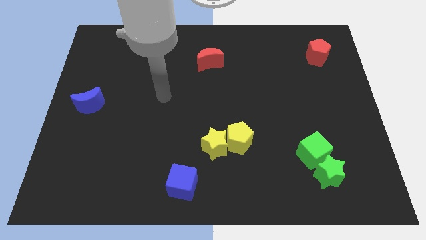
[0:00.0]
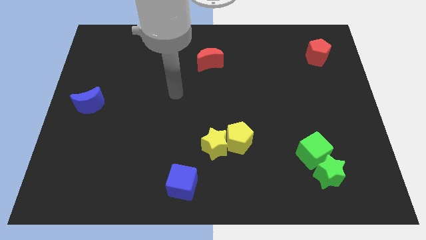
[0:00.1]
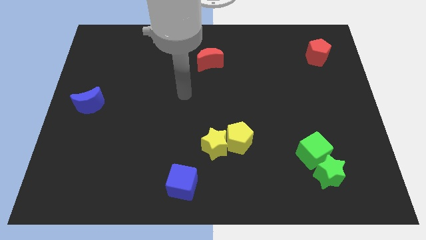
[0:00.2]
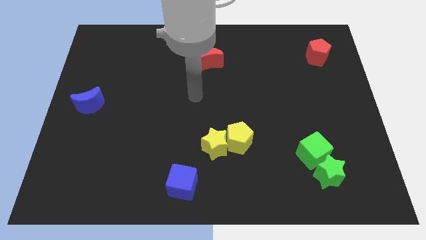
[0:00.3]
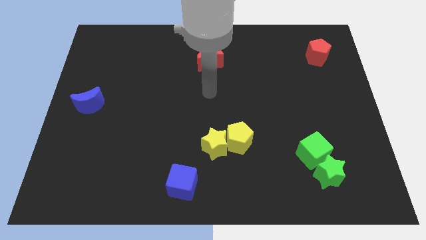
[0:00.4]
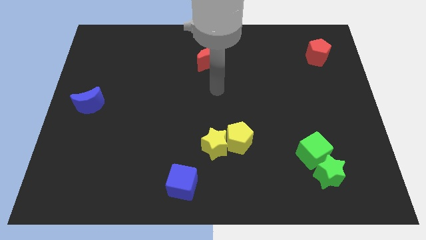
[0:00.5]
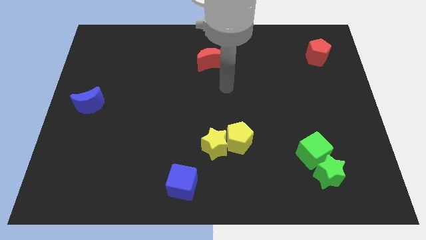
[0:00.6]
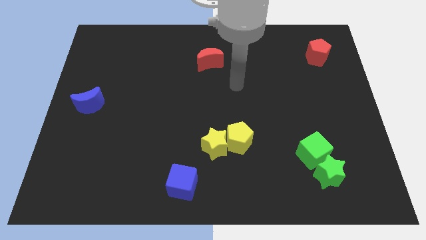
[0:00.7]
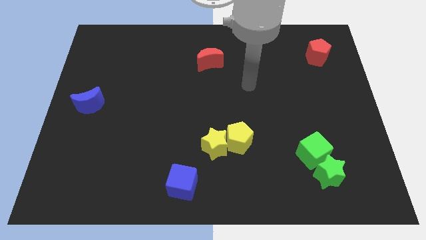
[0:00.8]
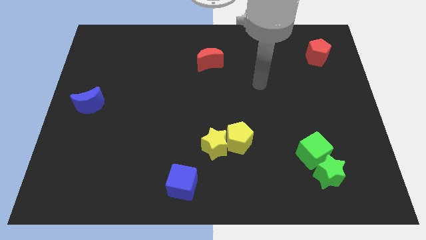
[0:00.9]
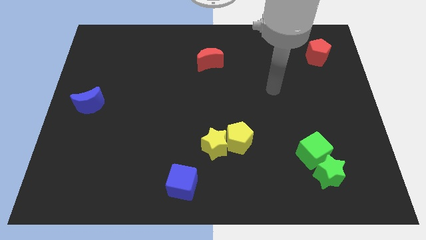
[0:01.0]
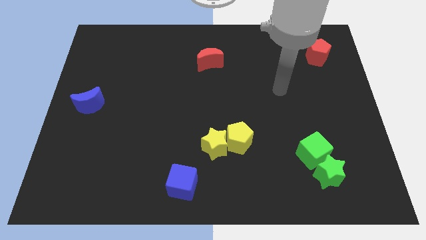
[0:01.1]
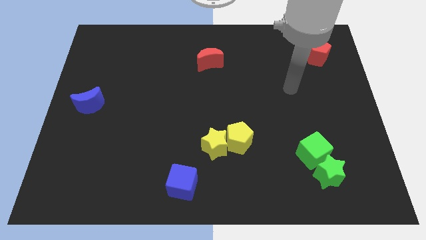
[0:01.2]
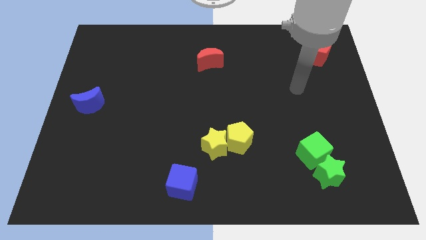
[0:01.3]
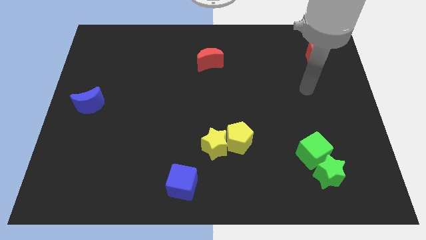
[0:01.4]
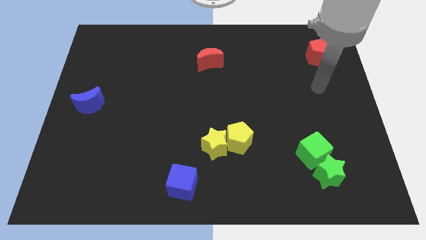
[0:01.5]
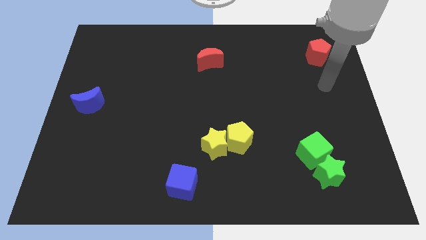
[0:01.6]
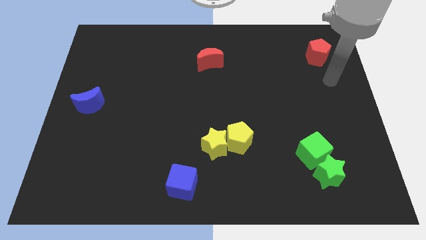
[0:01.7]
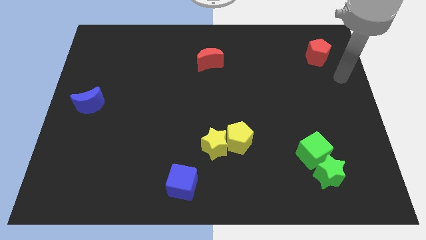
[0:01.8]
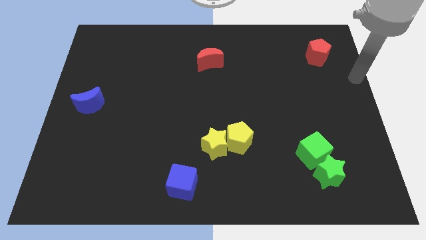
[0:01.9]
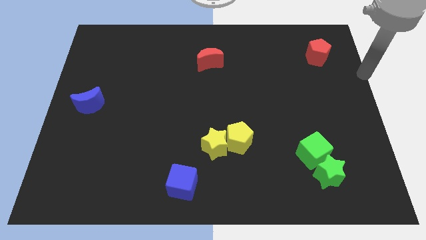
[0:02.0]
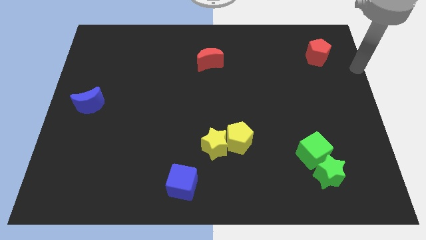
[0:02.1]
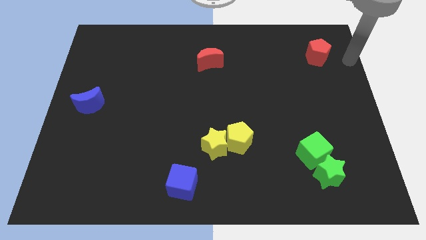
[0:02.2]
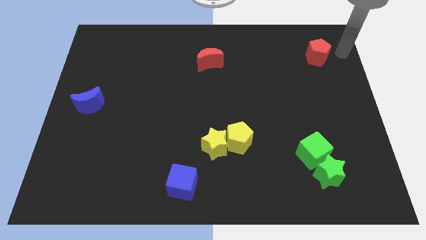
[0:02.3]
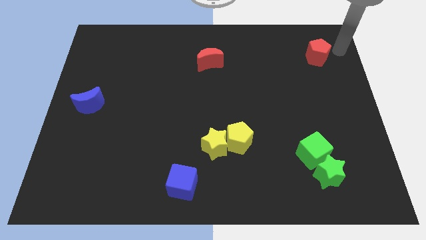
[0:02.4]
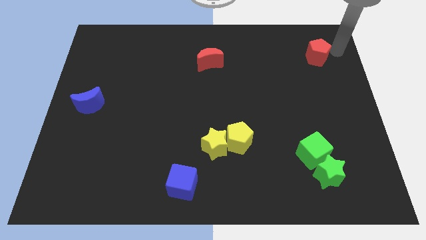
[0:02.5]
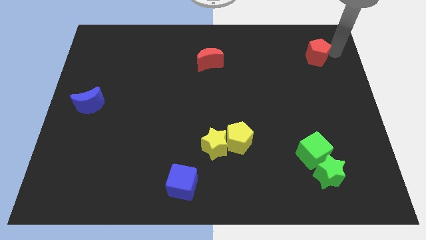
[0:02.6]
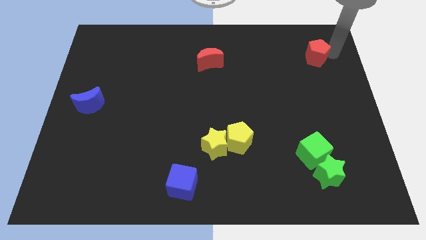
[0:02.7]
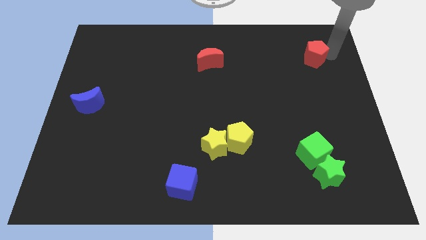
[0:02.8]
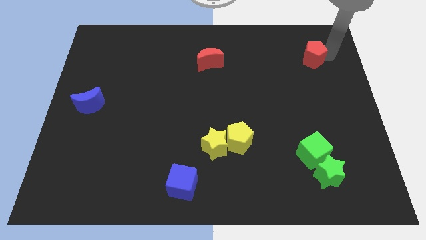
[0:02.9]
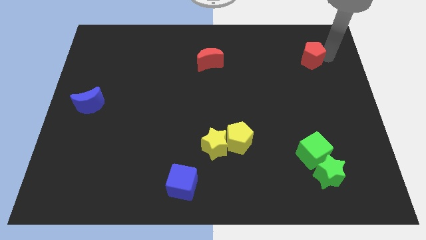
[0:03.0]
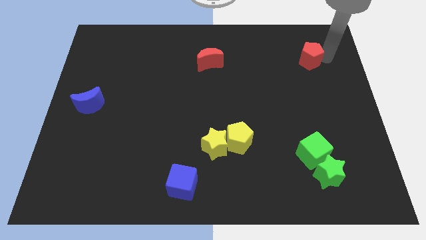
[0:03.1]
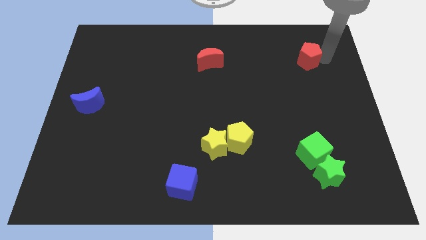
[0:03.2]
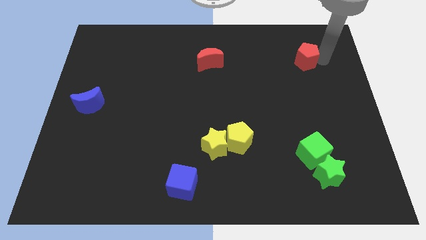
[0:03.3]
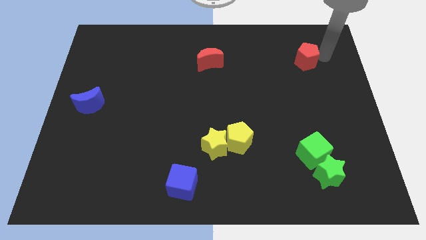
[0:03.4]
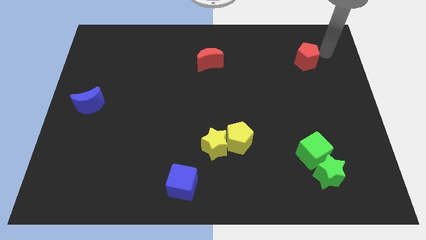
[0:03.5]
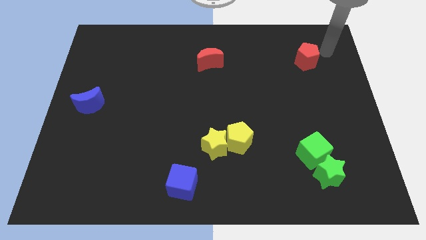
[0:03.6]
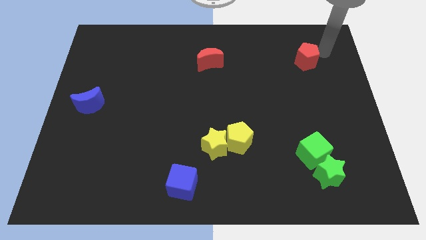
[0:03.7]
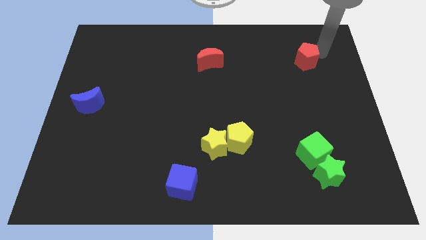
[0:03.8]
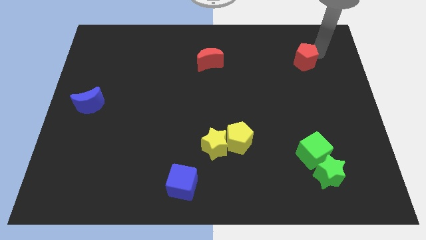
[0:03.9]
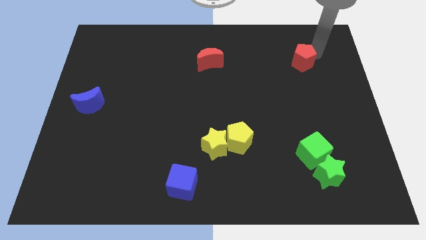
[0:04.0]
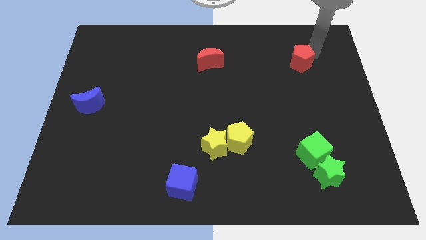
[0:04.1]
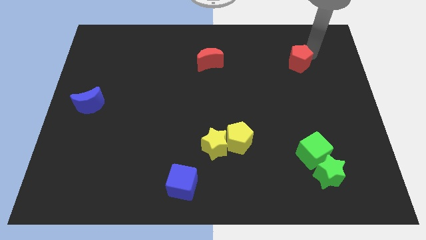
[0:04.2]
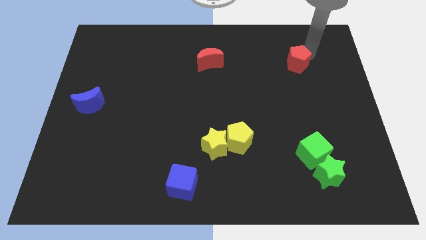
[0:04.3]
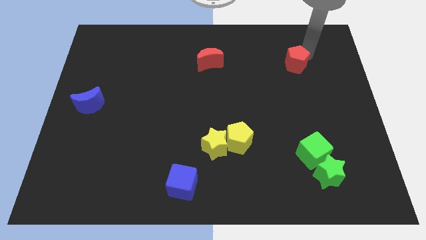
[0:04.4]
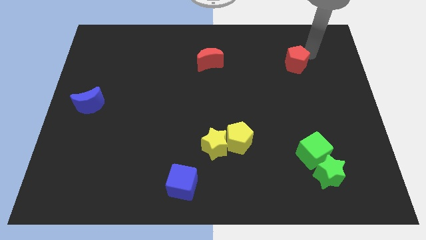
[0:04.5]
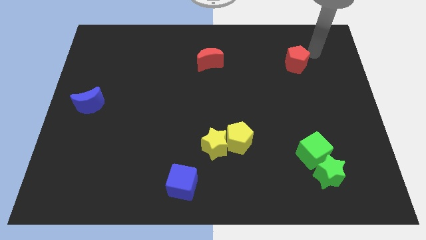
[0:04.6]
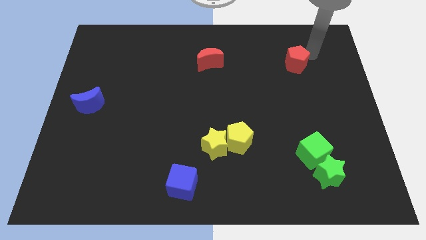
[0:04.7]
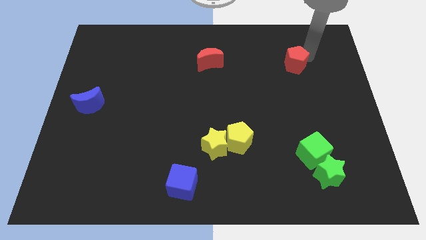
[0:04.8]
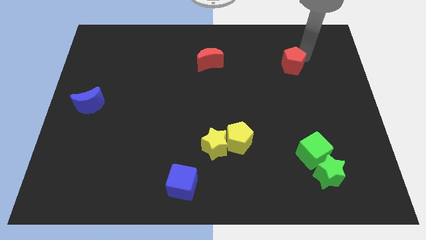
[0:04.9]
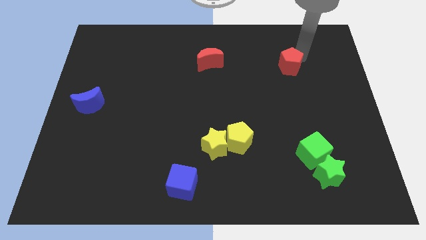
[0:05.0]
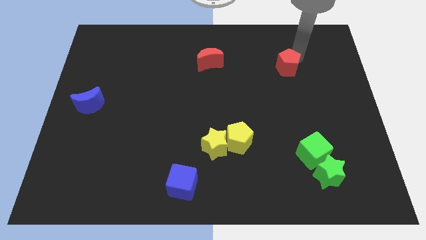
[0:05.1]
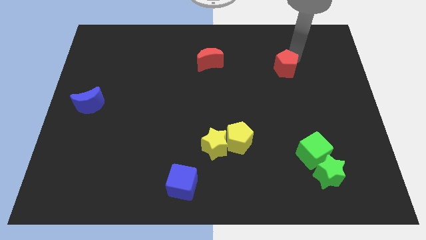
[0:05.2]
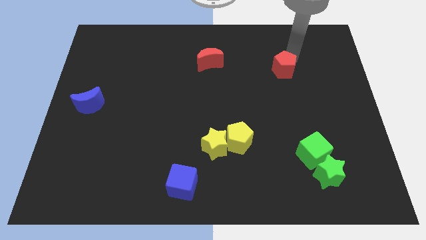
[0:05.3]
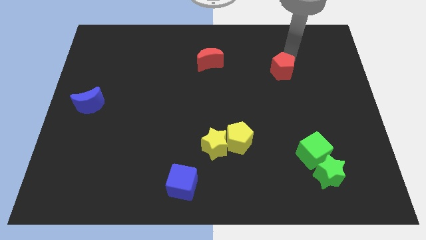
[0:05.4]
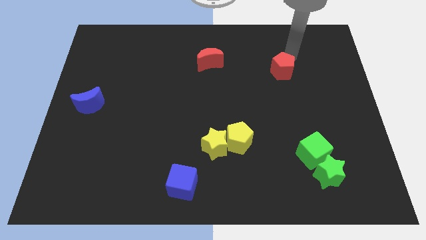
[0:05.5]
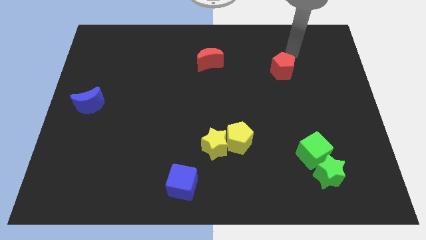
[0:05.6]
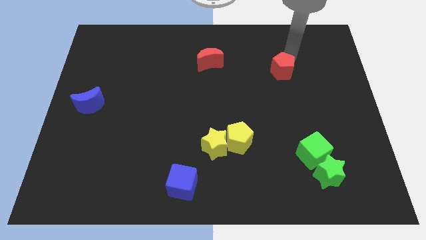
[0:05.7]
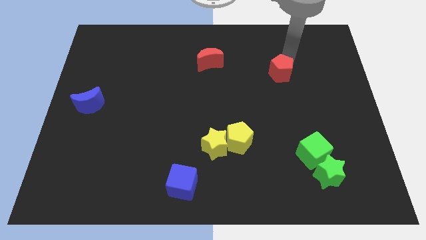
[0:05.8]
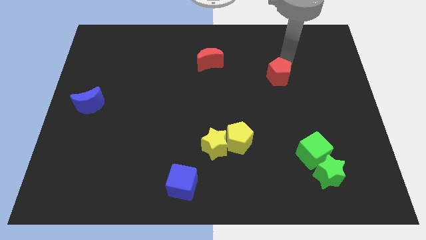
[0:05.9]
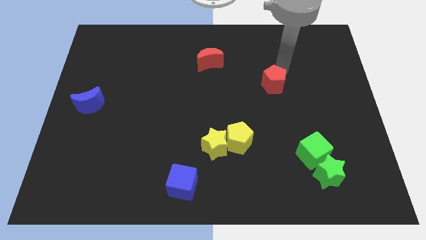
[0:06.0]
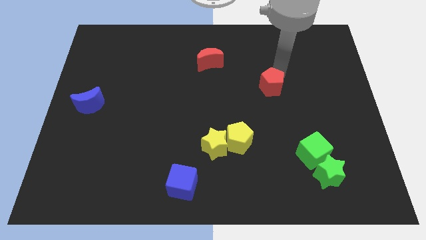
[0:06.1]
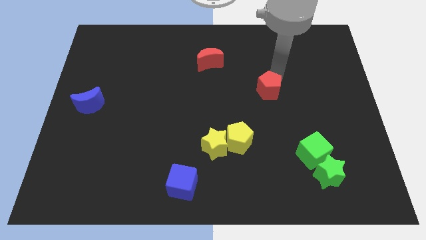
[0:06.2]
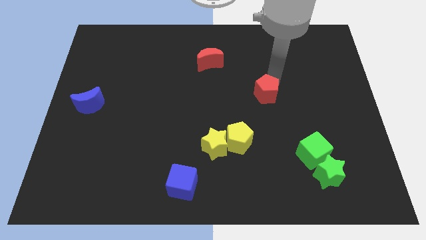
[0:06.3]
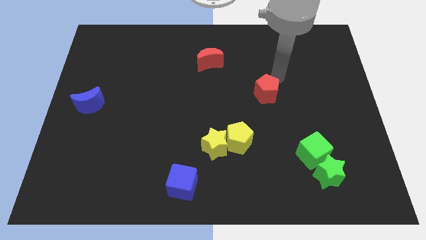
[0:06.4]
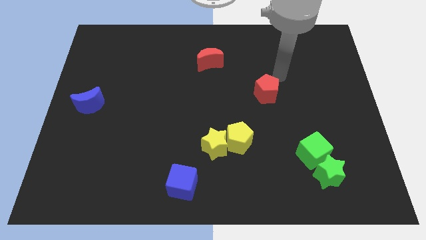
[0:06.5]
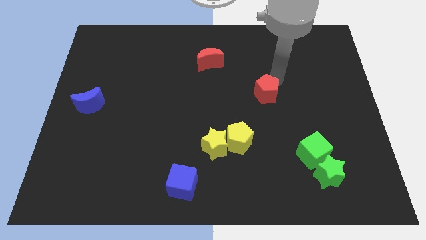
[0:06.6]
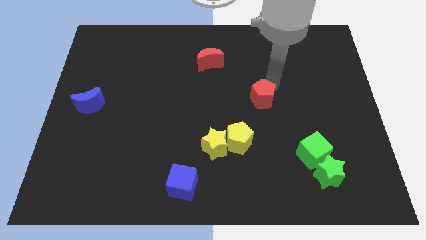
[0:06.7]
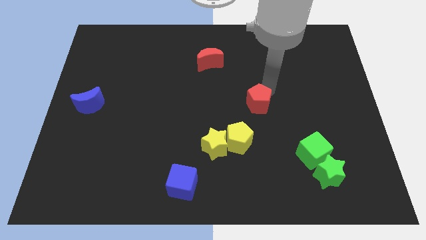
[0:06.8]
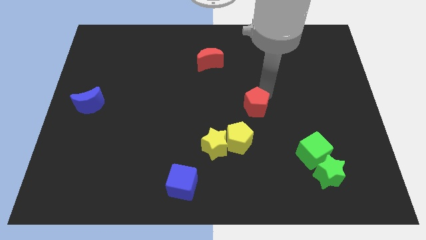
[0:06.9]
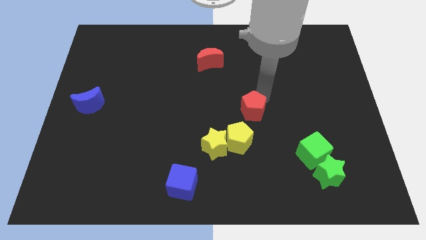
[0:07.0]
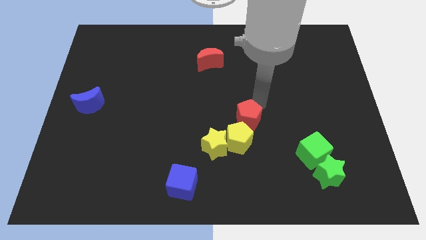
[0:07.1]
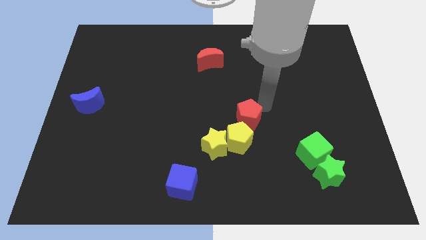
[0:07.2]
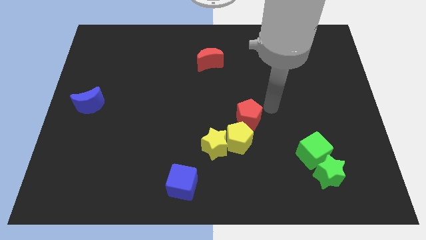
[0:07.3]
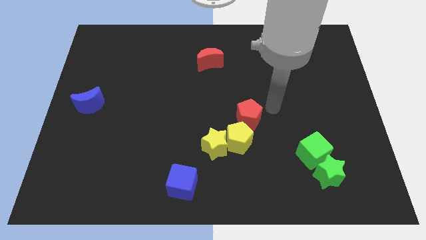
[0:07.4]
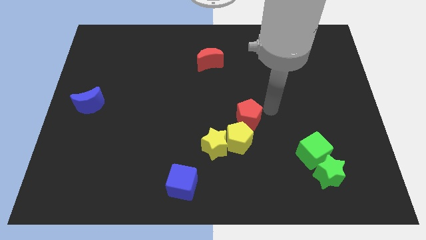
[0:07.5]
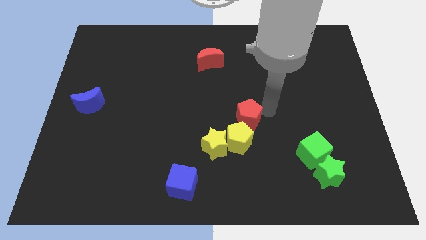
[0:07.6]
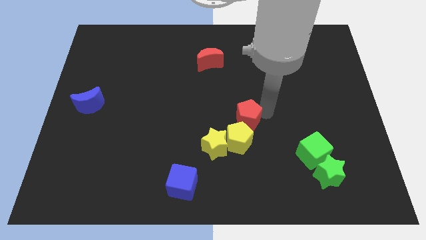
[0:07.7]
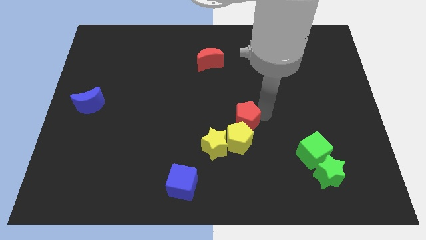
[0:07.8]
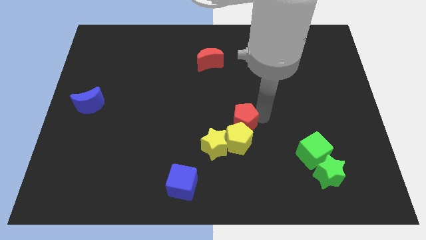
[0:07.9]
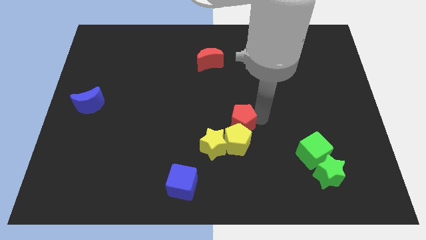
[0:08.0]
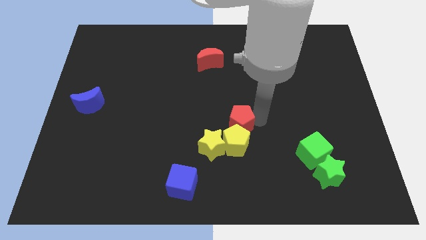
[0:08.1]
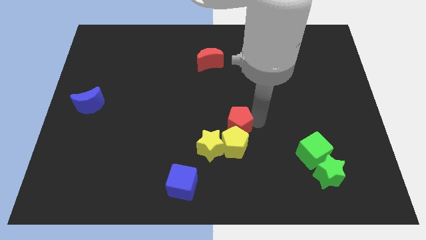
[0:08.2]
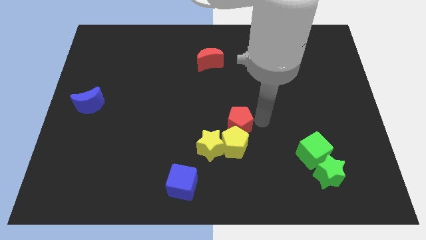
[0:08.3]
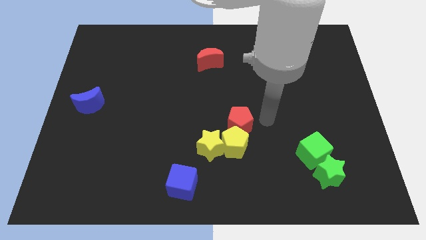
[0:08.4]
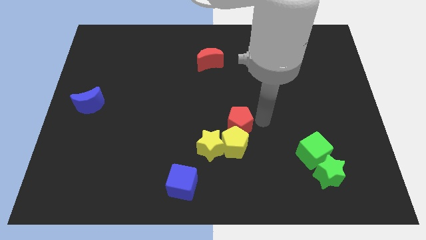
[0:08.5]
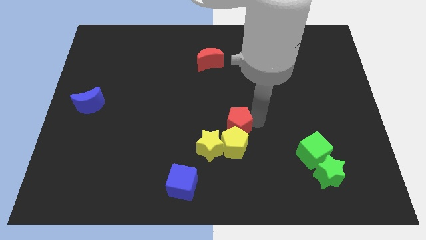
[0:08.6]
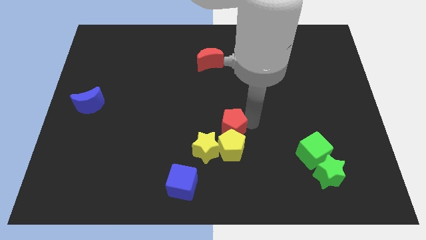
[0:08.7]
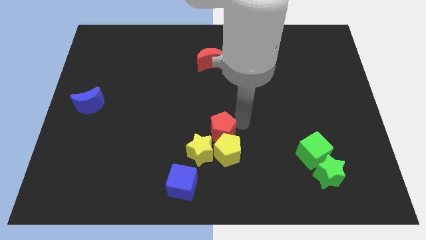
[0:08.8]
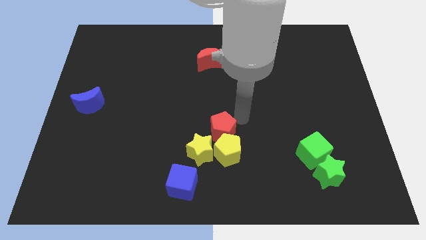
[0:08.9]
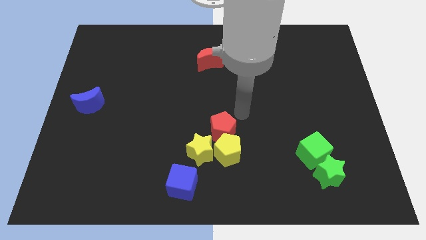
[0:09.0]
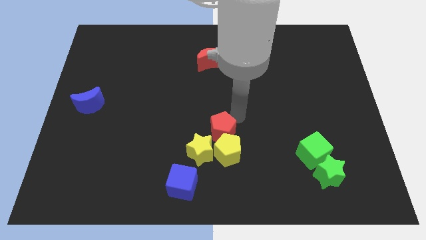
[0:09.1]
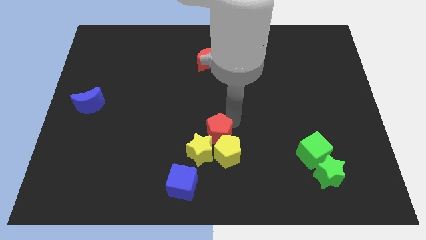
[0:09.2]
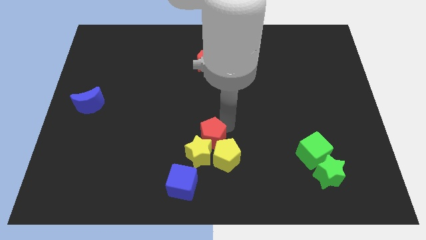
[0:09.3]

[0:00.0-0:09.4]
move the red pentagon close to the yellow star
